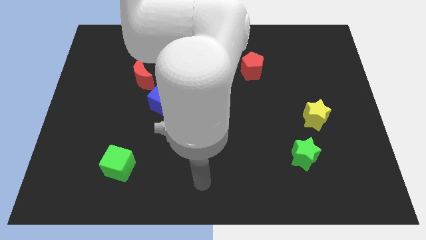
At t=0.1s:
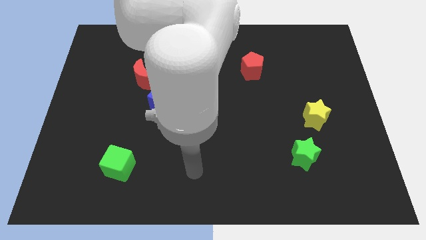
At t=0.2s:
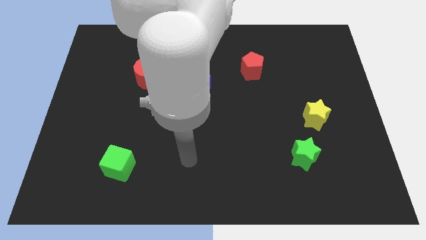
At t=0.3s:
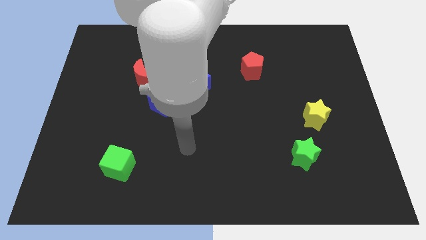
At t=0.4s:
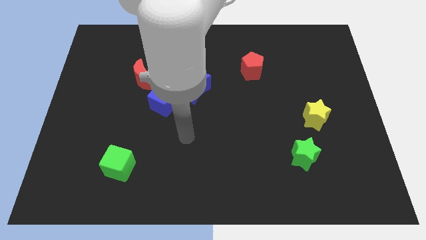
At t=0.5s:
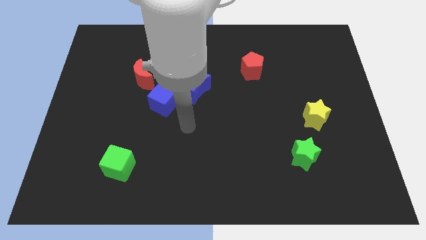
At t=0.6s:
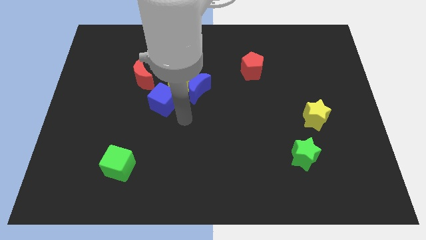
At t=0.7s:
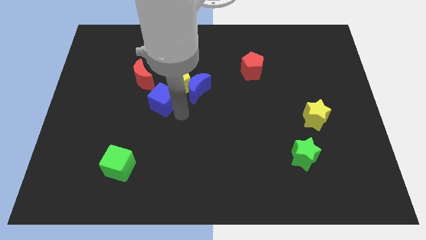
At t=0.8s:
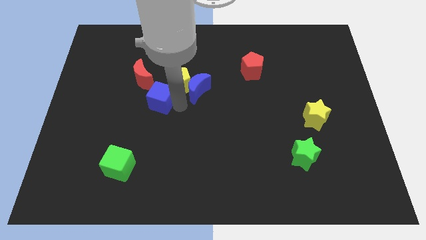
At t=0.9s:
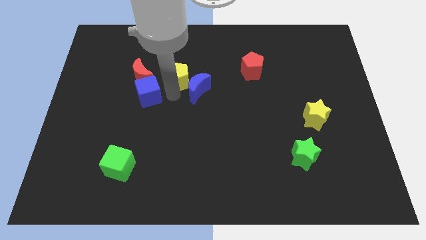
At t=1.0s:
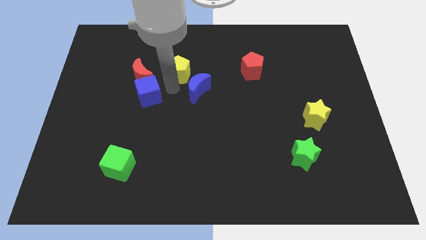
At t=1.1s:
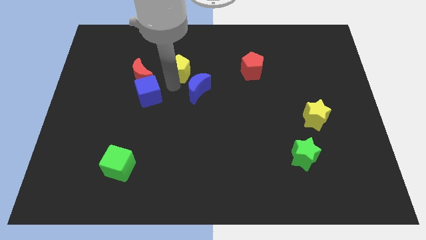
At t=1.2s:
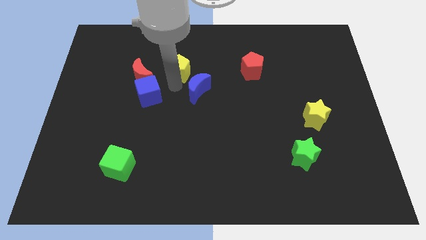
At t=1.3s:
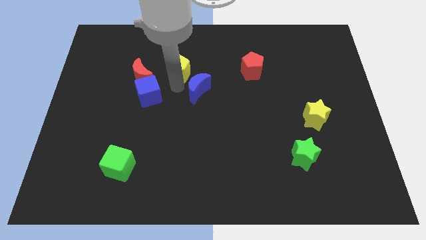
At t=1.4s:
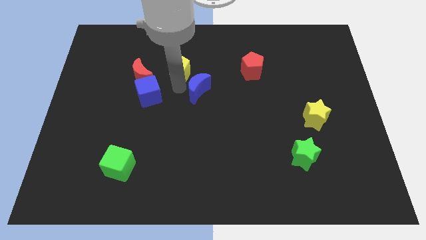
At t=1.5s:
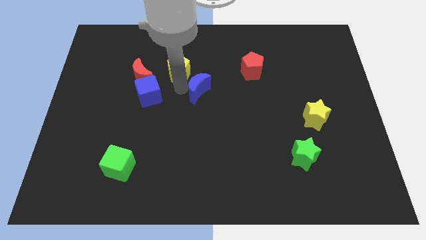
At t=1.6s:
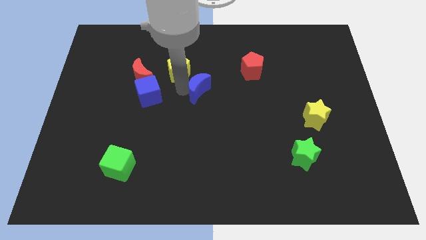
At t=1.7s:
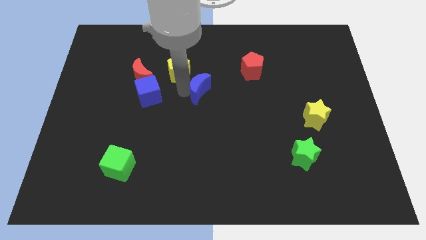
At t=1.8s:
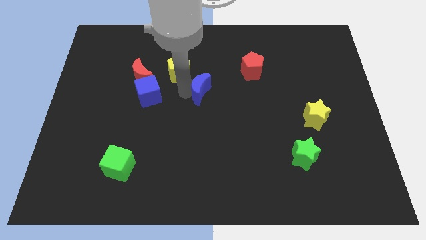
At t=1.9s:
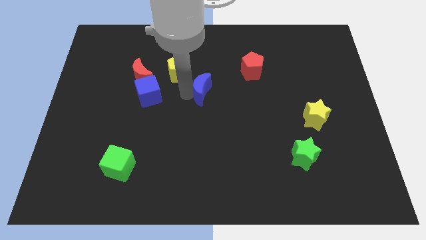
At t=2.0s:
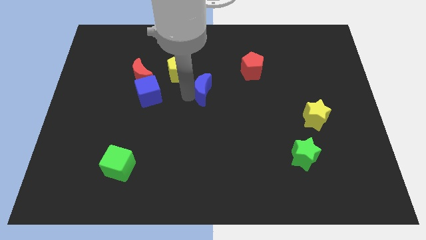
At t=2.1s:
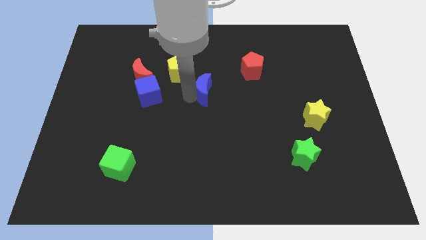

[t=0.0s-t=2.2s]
separate the blue moon from the yellow pentagon and blue cube

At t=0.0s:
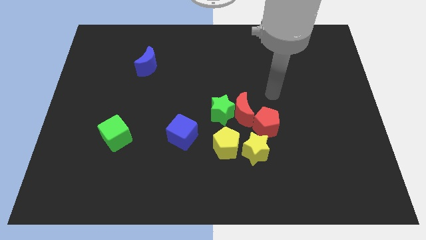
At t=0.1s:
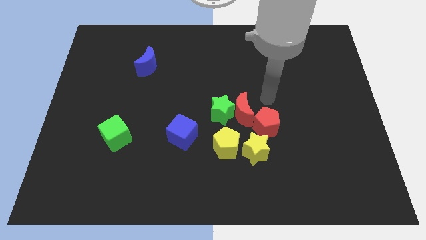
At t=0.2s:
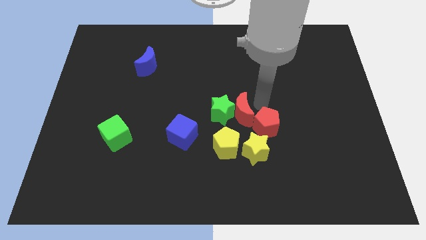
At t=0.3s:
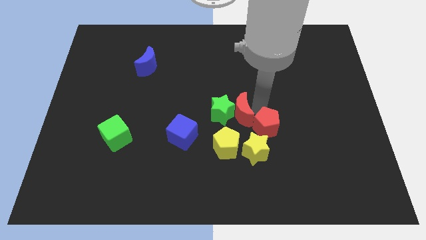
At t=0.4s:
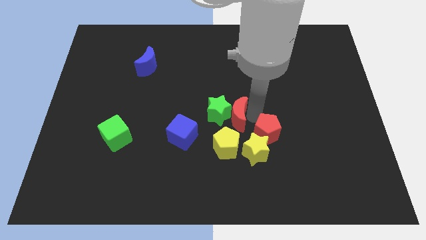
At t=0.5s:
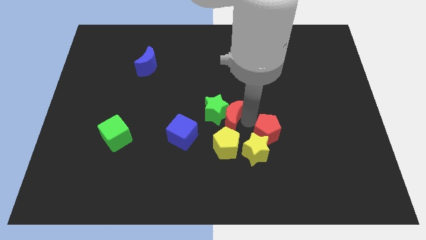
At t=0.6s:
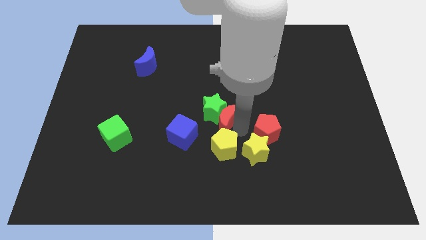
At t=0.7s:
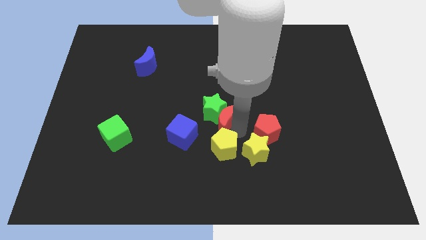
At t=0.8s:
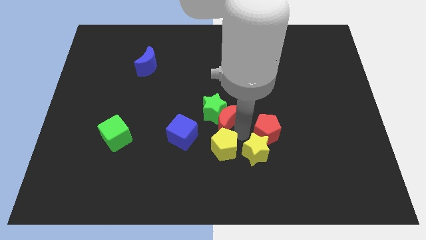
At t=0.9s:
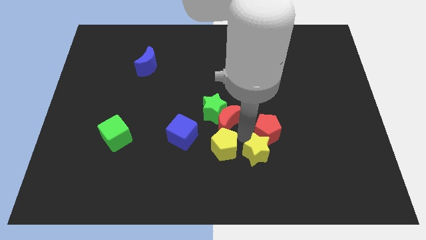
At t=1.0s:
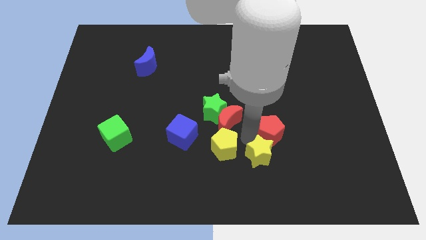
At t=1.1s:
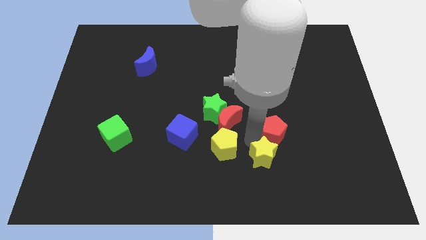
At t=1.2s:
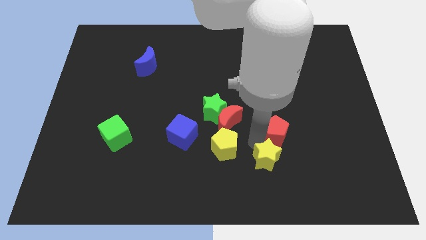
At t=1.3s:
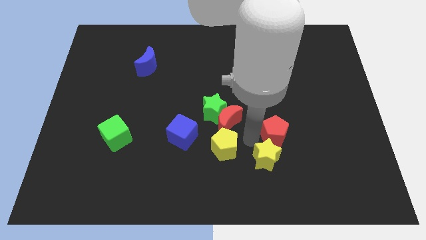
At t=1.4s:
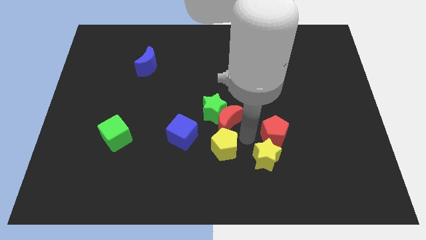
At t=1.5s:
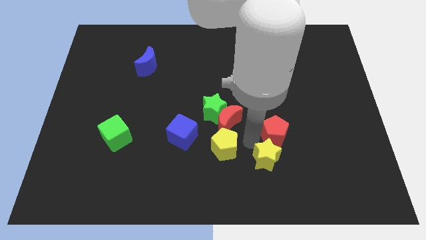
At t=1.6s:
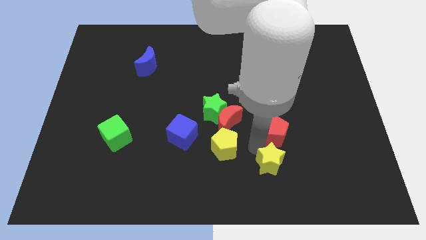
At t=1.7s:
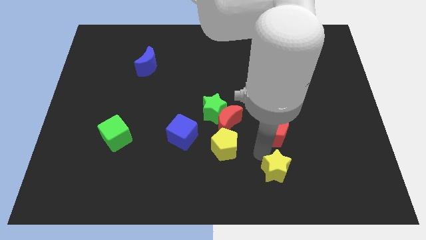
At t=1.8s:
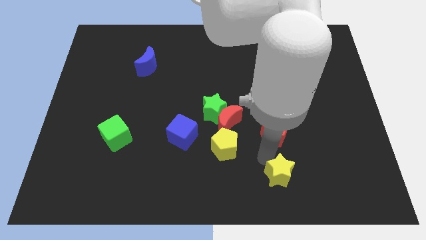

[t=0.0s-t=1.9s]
pull the yellow star apart from the yellow pentagon and red pentagon

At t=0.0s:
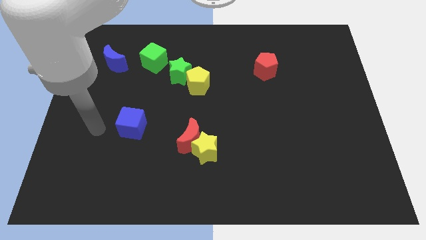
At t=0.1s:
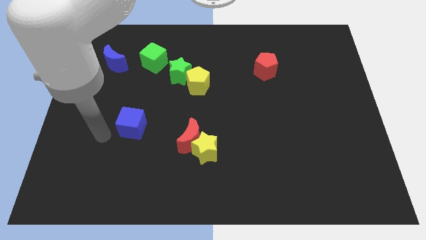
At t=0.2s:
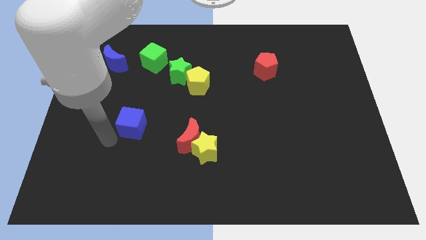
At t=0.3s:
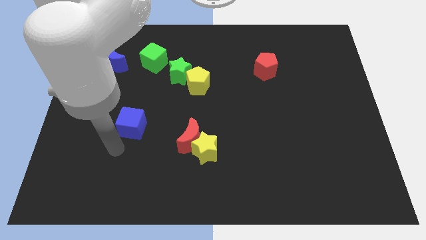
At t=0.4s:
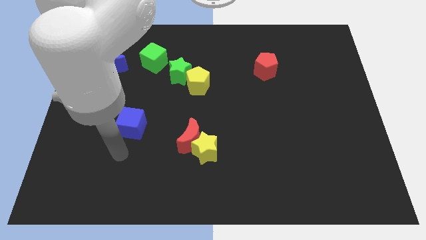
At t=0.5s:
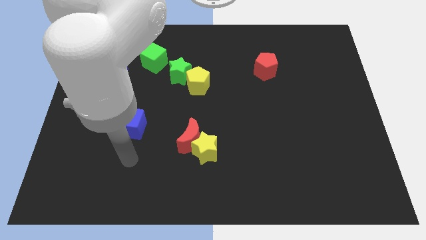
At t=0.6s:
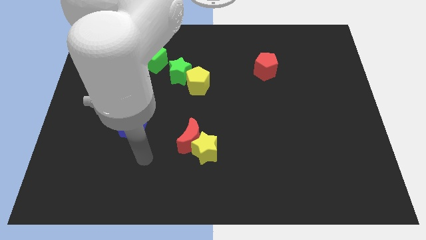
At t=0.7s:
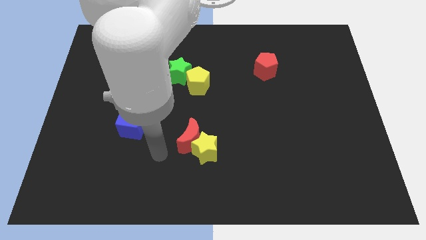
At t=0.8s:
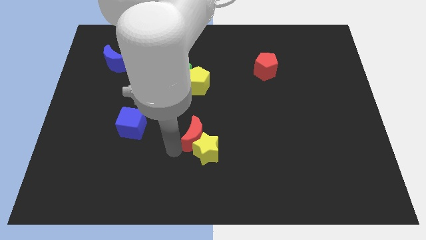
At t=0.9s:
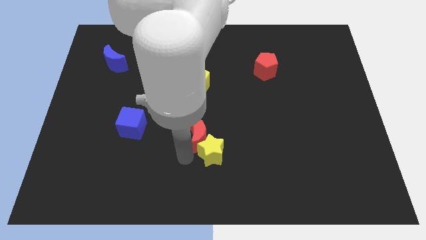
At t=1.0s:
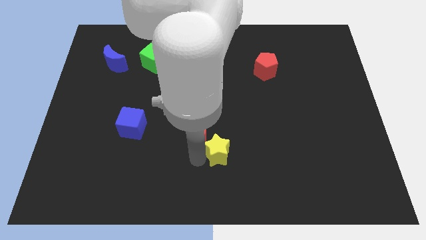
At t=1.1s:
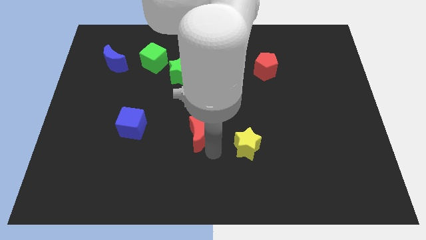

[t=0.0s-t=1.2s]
move the red moon away from the yellow star

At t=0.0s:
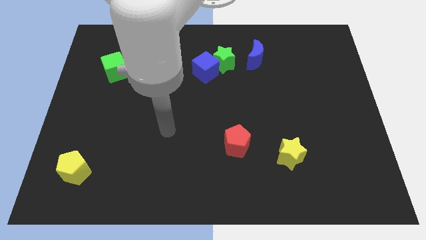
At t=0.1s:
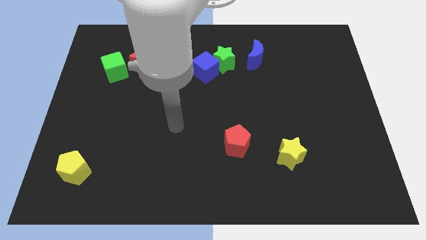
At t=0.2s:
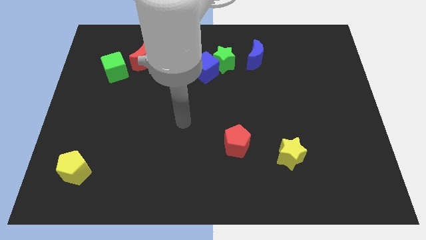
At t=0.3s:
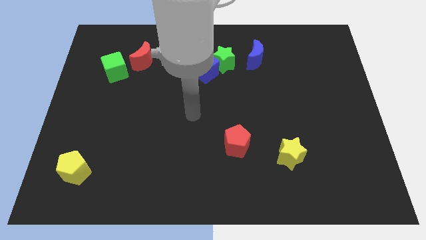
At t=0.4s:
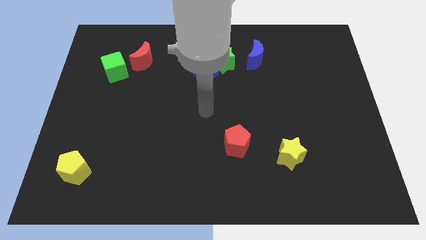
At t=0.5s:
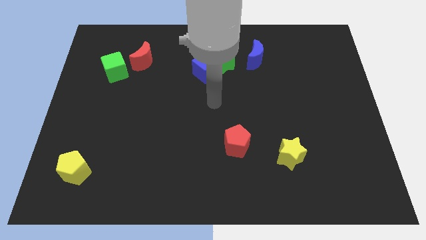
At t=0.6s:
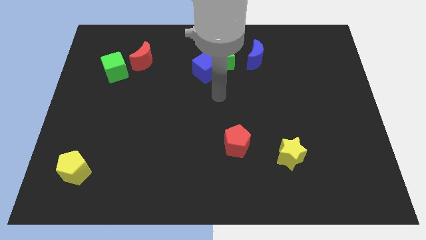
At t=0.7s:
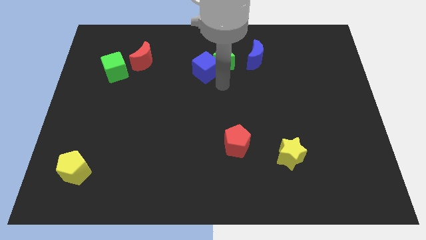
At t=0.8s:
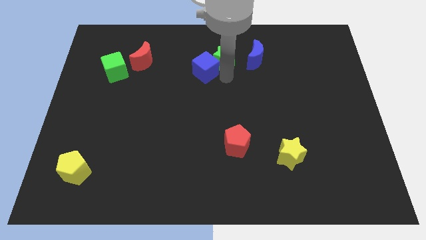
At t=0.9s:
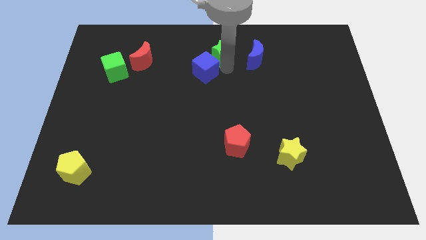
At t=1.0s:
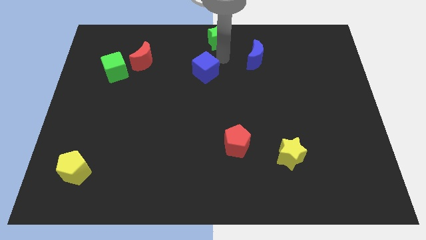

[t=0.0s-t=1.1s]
pull the blue cube apart from the green star

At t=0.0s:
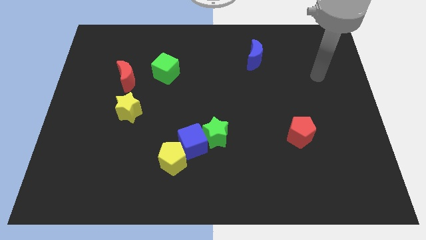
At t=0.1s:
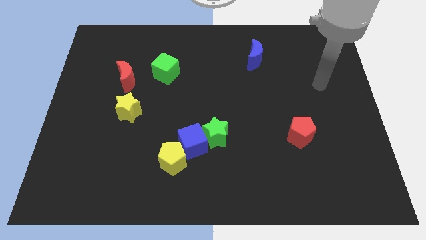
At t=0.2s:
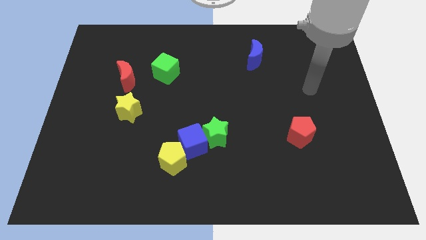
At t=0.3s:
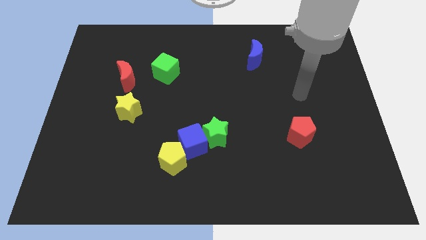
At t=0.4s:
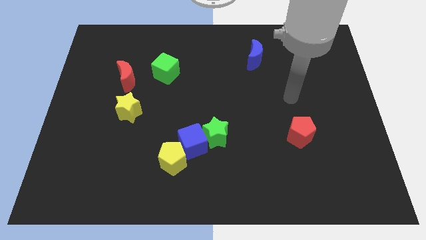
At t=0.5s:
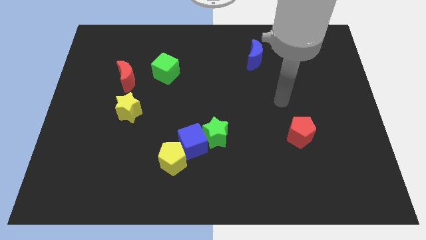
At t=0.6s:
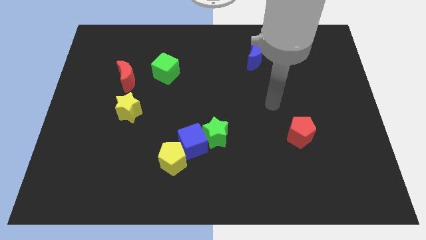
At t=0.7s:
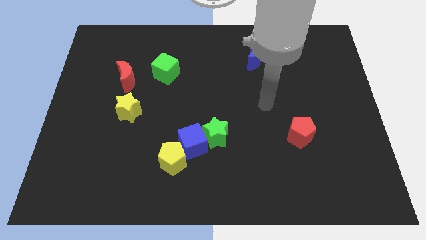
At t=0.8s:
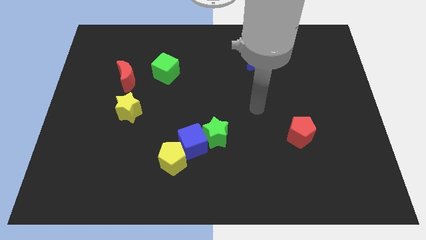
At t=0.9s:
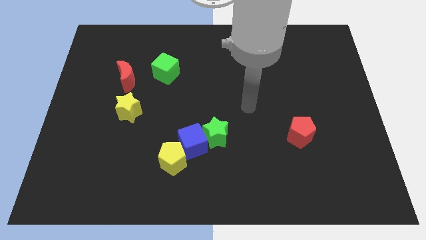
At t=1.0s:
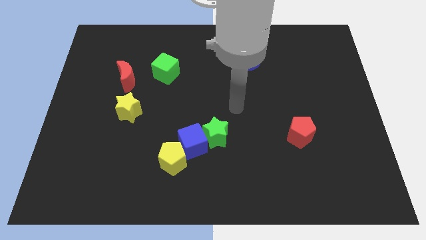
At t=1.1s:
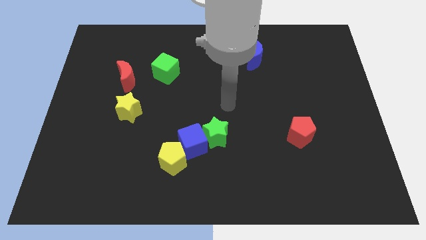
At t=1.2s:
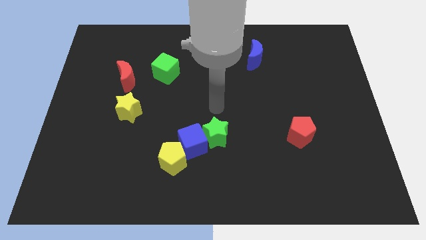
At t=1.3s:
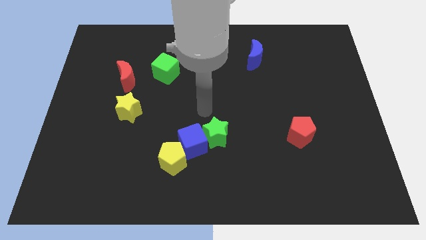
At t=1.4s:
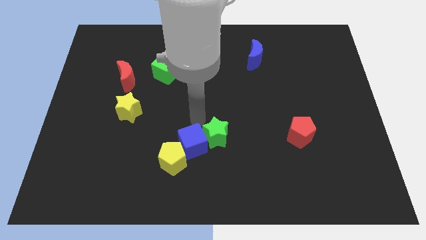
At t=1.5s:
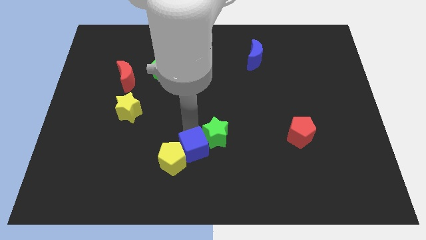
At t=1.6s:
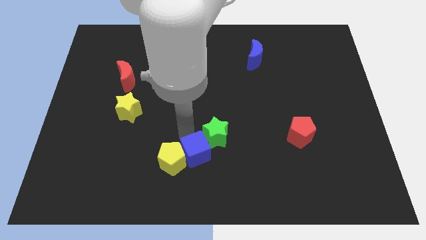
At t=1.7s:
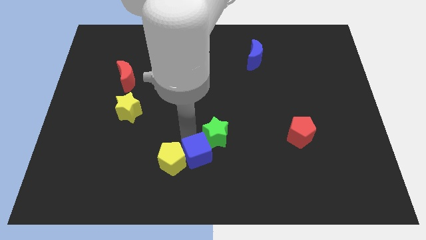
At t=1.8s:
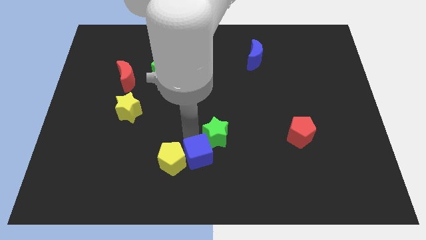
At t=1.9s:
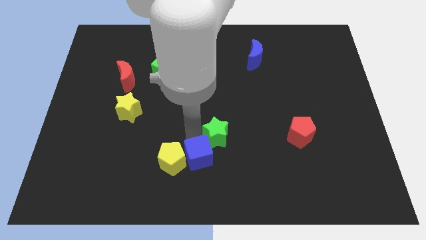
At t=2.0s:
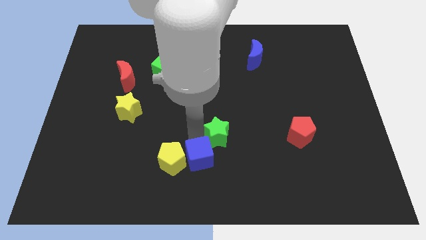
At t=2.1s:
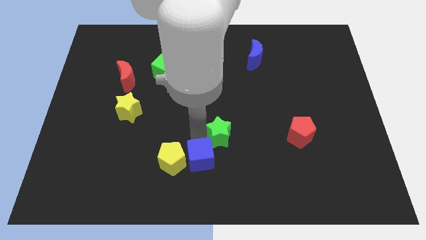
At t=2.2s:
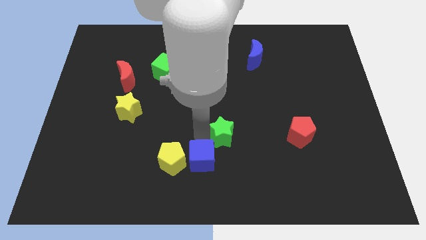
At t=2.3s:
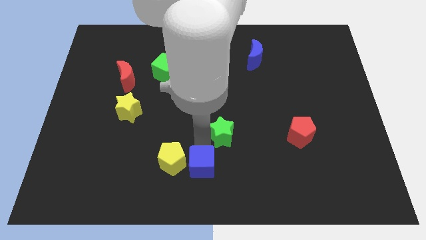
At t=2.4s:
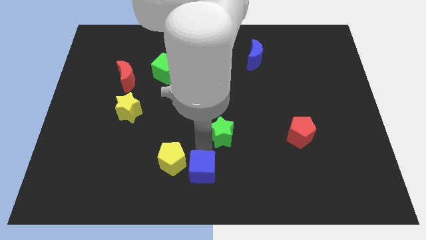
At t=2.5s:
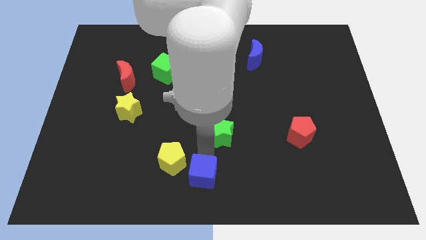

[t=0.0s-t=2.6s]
move the green star away from the blue cube

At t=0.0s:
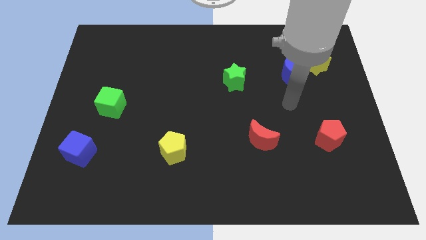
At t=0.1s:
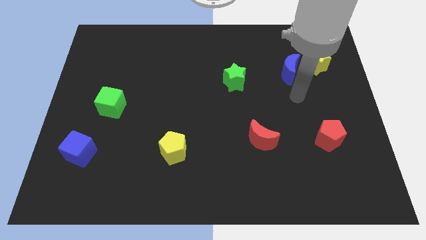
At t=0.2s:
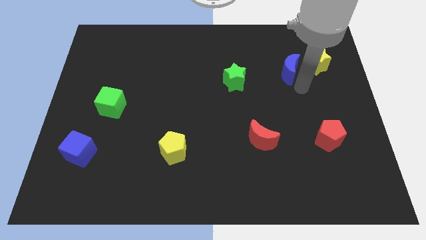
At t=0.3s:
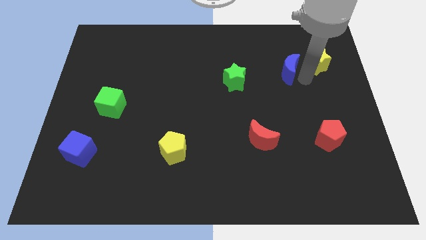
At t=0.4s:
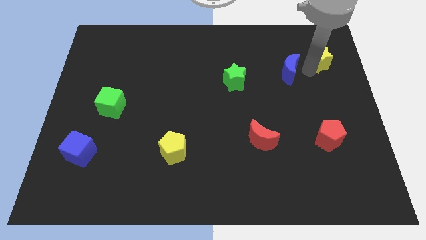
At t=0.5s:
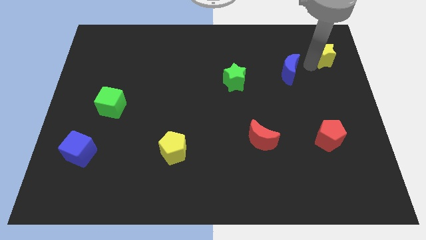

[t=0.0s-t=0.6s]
pull the blue moon apart from the yellow star
